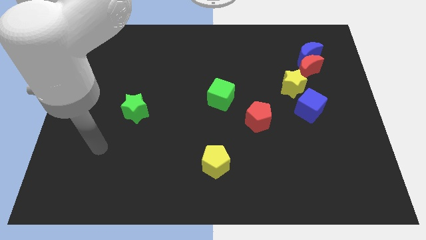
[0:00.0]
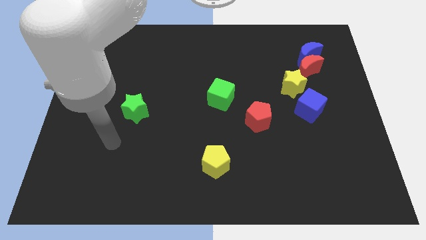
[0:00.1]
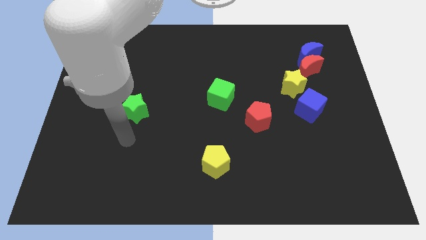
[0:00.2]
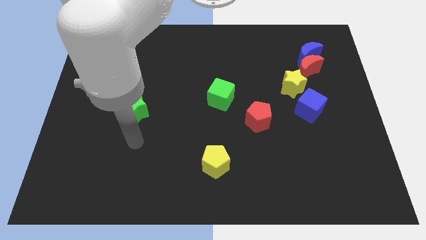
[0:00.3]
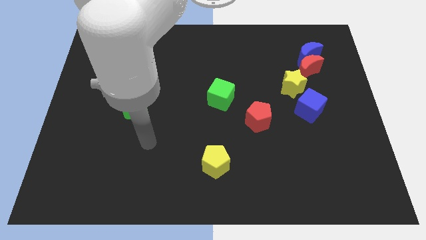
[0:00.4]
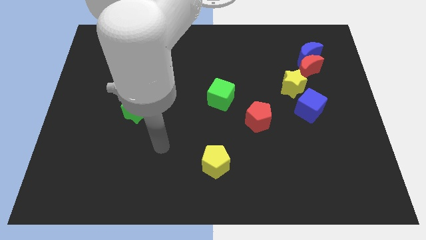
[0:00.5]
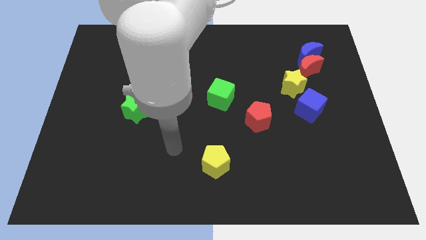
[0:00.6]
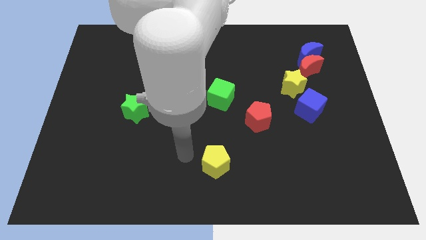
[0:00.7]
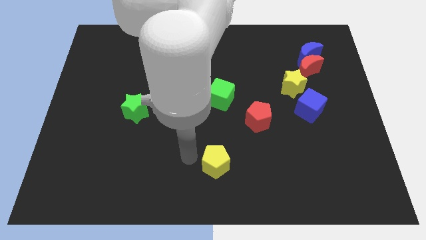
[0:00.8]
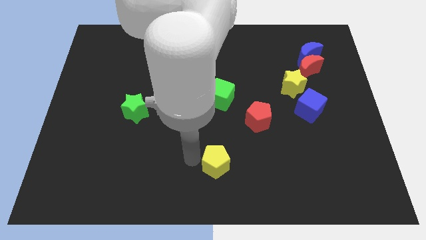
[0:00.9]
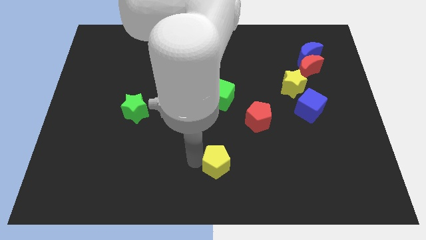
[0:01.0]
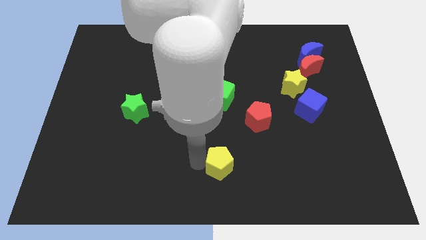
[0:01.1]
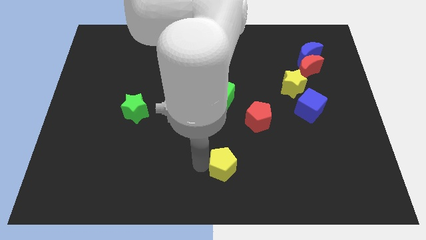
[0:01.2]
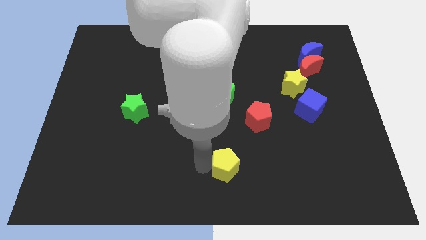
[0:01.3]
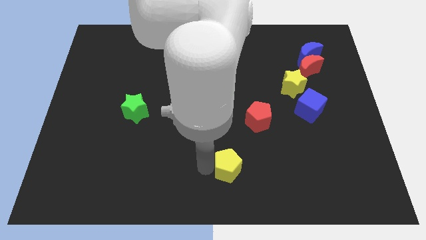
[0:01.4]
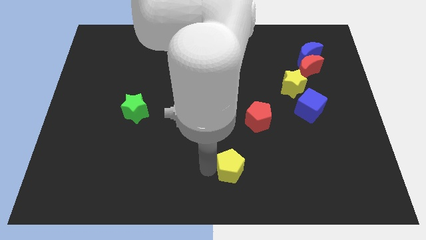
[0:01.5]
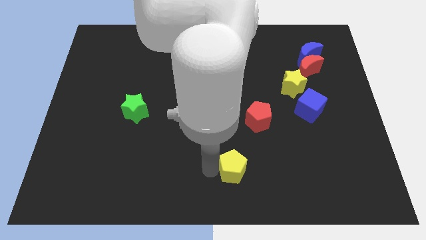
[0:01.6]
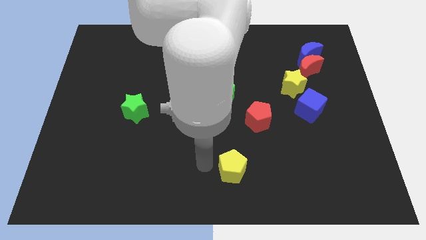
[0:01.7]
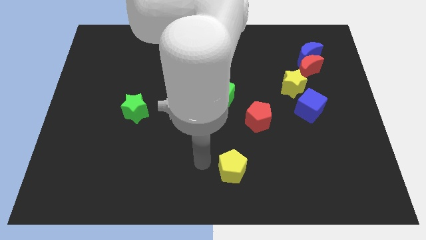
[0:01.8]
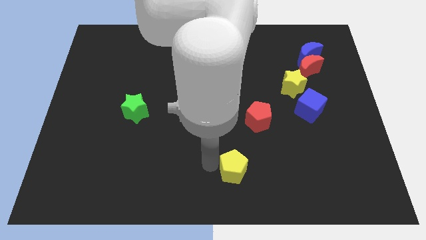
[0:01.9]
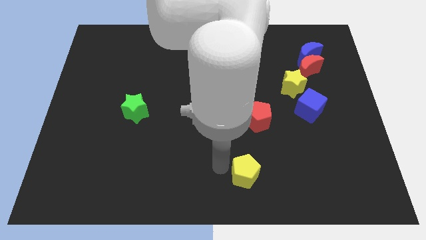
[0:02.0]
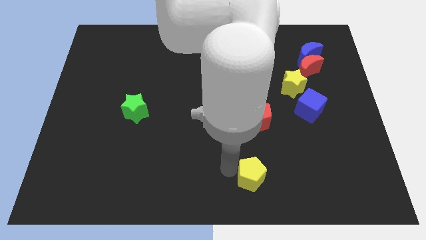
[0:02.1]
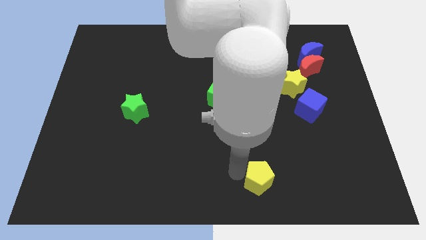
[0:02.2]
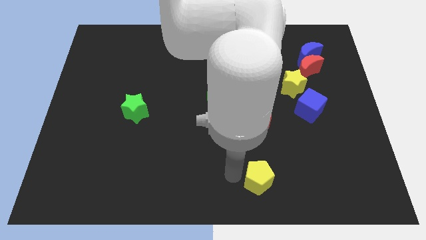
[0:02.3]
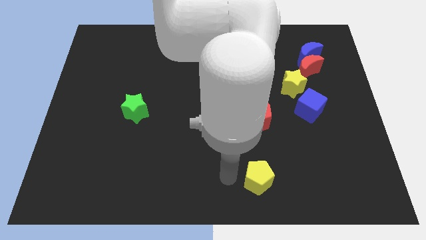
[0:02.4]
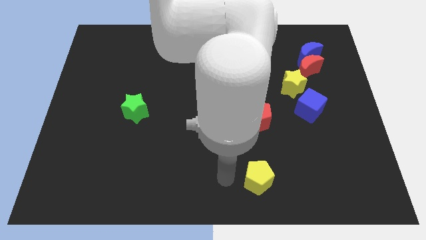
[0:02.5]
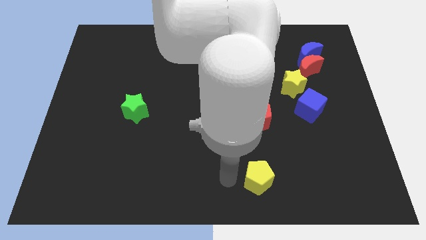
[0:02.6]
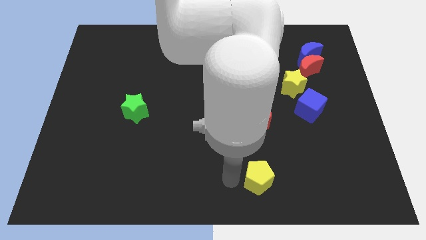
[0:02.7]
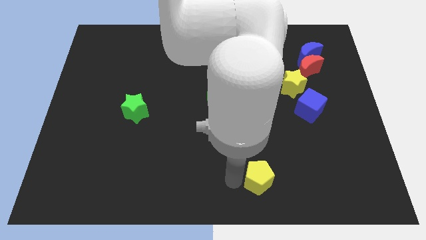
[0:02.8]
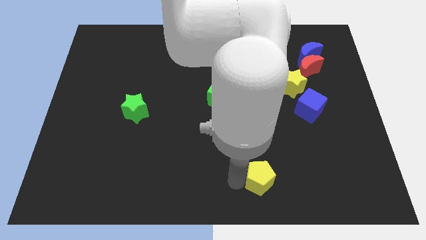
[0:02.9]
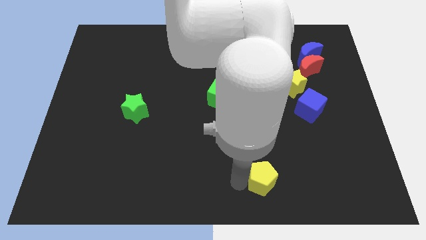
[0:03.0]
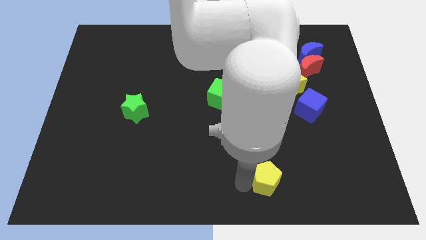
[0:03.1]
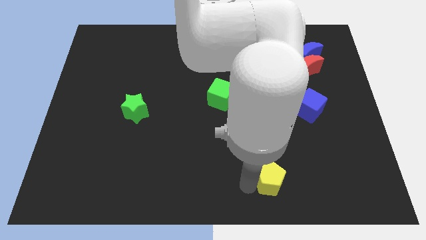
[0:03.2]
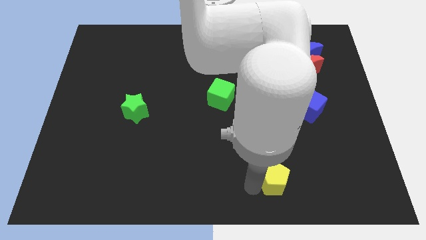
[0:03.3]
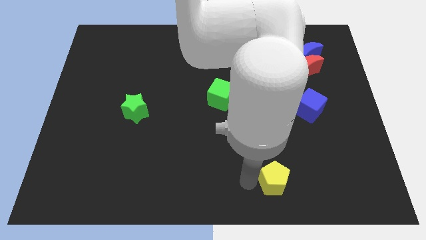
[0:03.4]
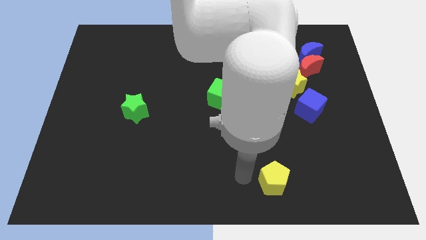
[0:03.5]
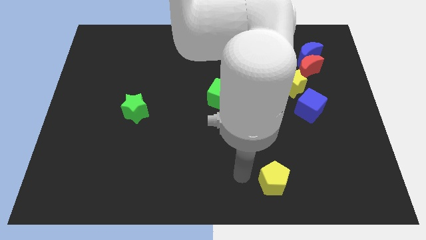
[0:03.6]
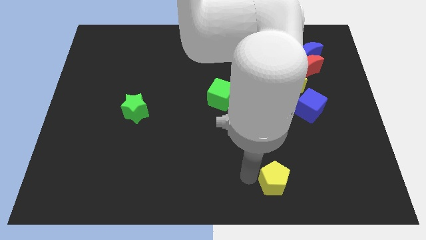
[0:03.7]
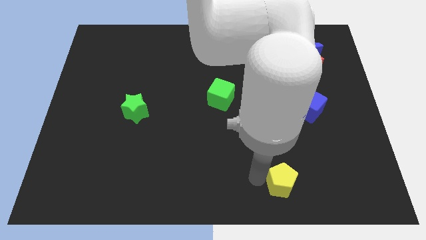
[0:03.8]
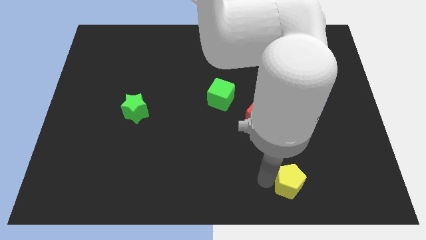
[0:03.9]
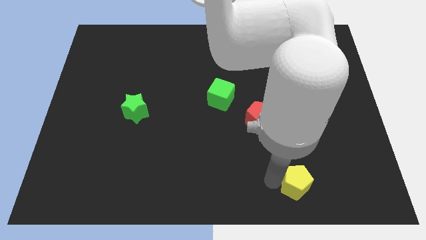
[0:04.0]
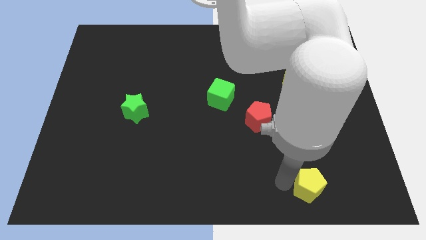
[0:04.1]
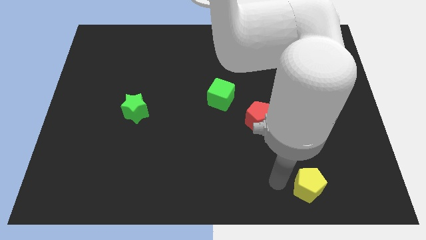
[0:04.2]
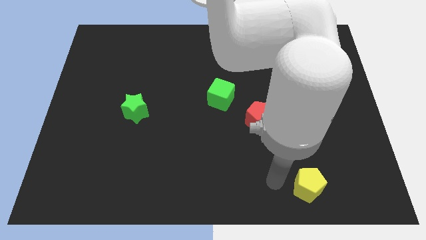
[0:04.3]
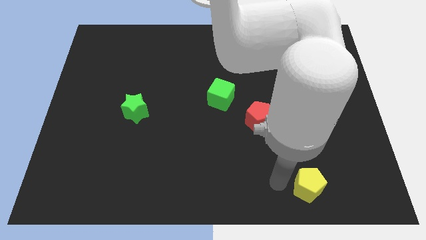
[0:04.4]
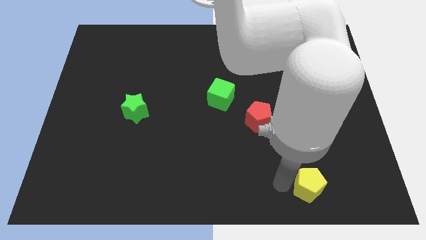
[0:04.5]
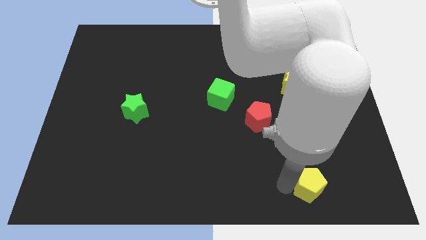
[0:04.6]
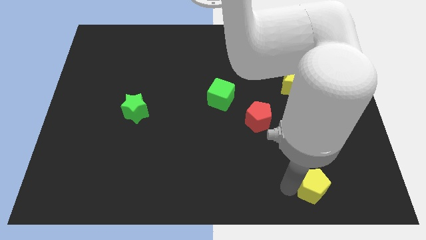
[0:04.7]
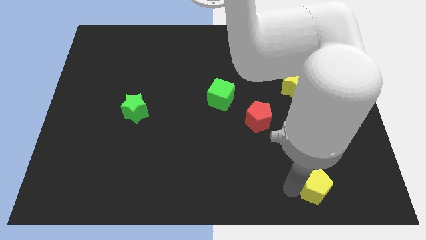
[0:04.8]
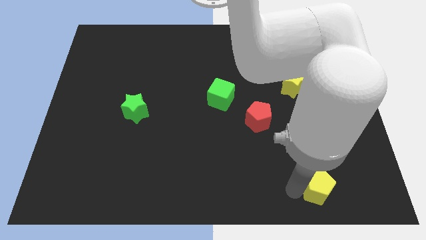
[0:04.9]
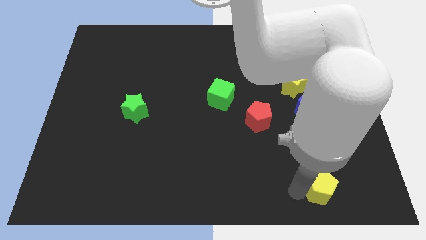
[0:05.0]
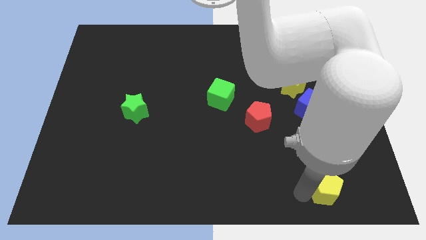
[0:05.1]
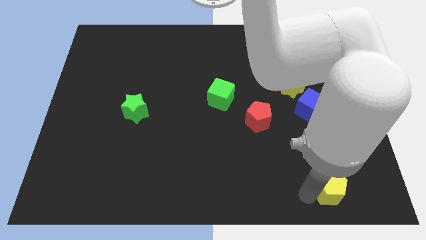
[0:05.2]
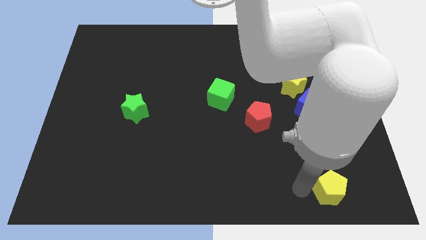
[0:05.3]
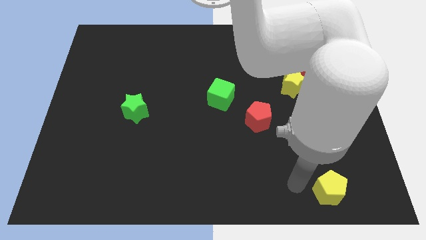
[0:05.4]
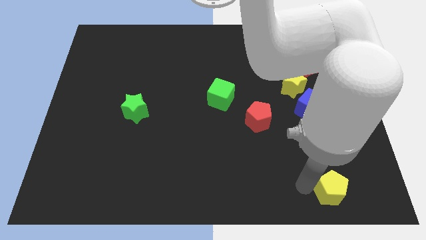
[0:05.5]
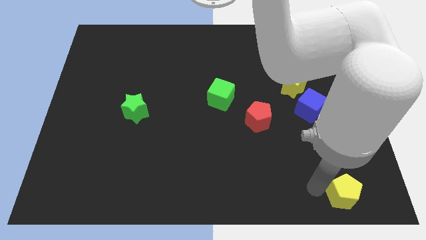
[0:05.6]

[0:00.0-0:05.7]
move the yellow pentagon to the bottom right of the board

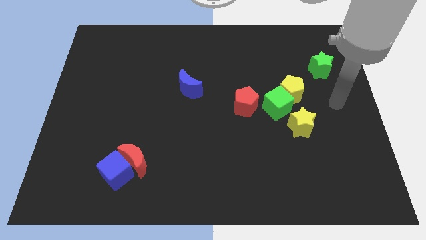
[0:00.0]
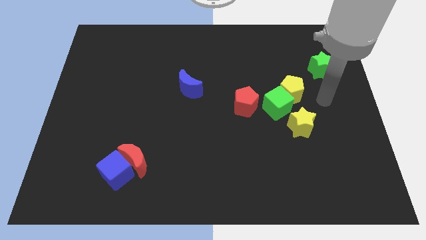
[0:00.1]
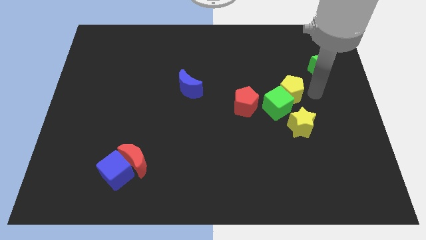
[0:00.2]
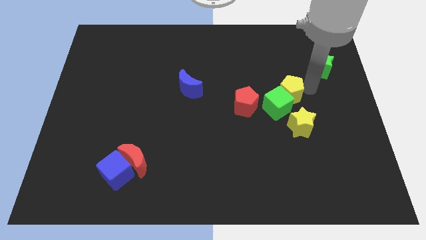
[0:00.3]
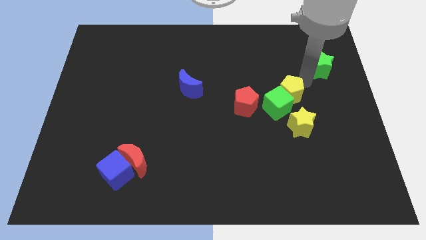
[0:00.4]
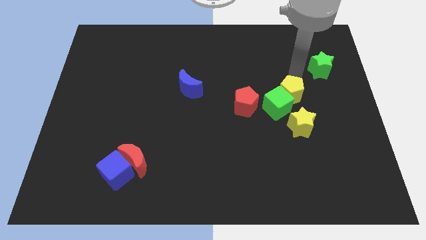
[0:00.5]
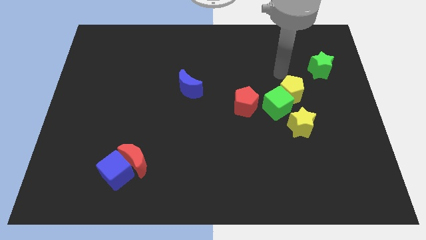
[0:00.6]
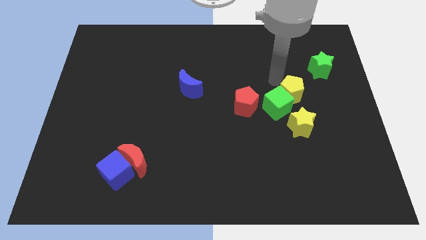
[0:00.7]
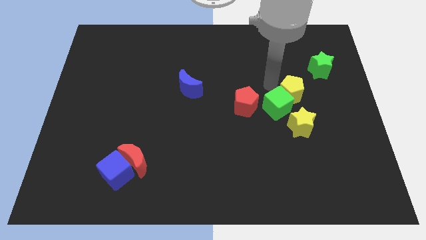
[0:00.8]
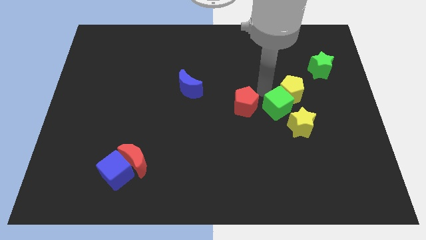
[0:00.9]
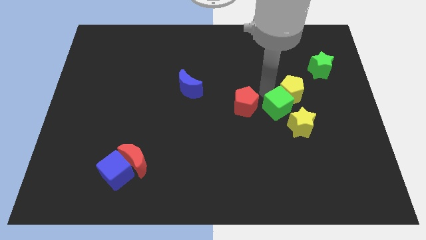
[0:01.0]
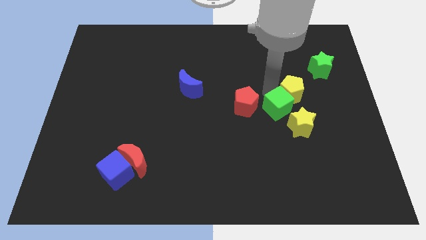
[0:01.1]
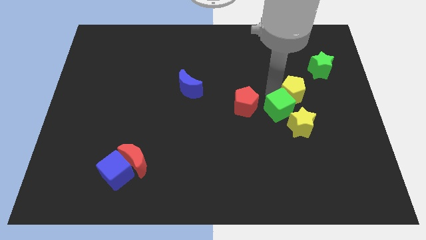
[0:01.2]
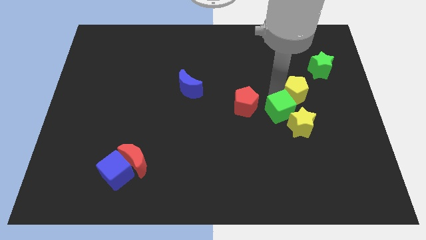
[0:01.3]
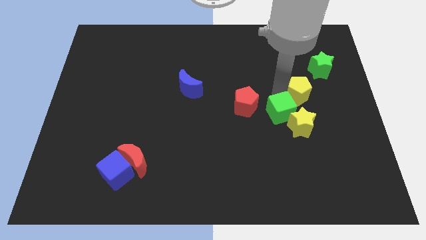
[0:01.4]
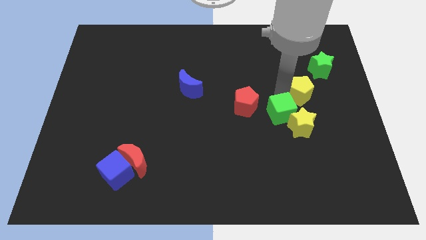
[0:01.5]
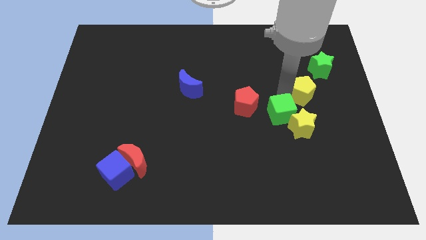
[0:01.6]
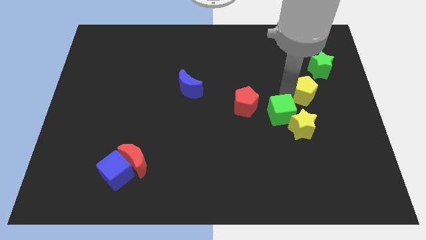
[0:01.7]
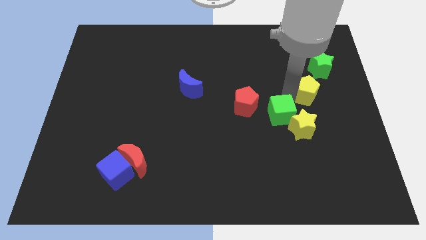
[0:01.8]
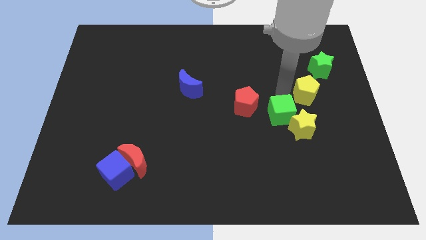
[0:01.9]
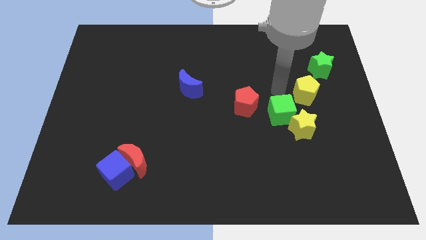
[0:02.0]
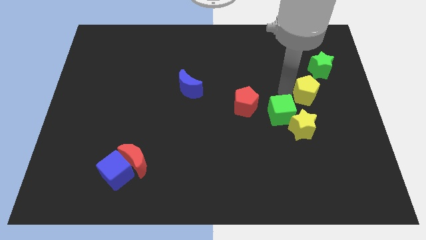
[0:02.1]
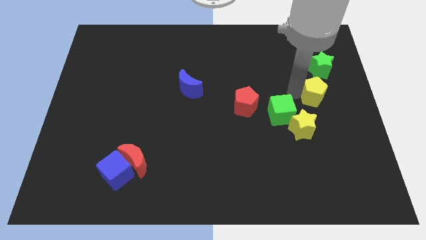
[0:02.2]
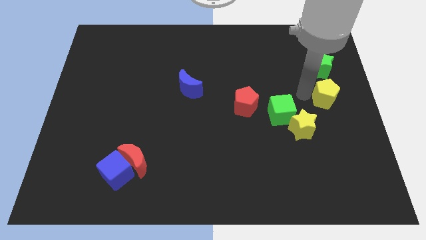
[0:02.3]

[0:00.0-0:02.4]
move the yellow pentagon to the right side of the board
